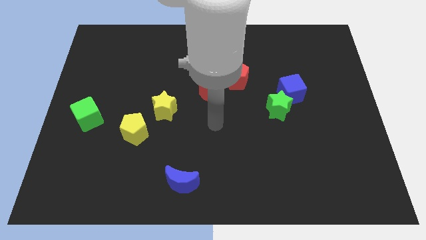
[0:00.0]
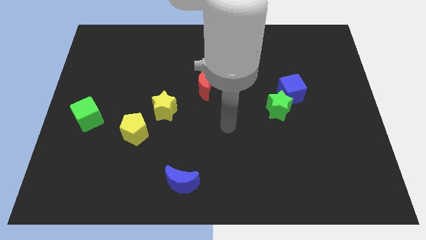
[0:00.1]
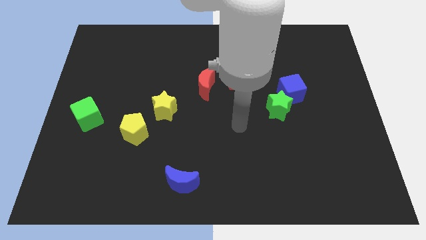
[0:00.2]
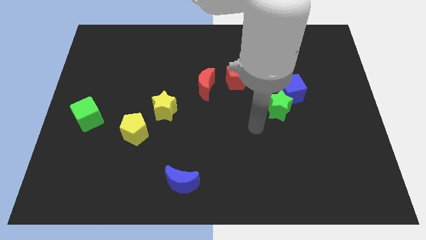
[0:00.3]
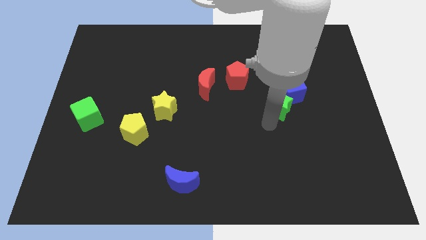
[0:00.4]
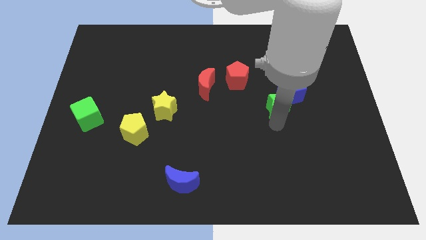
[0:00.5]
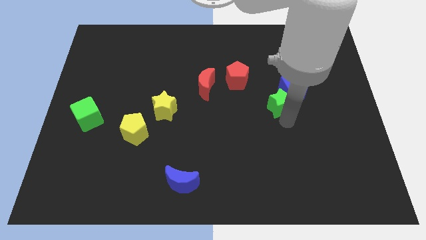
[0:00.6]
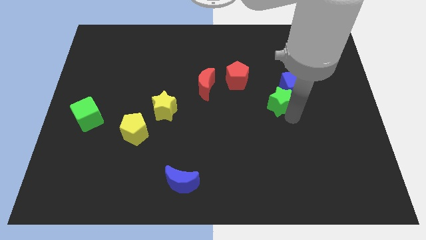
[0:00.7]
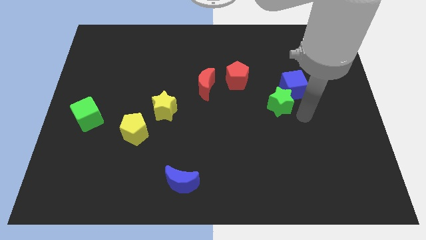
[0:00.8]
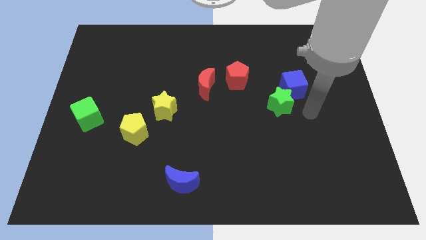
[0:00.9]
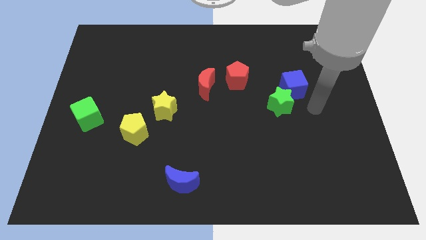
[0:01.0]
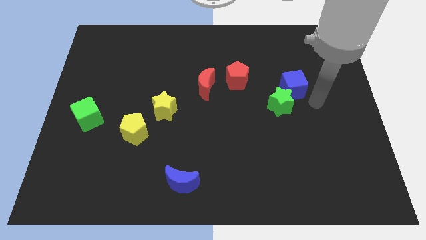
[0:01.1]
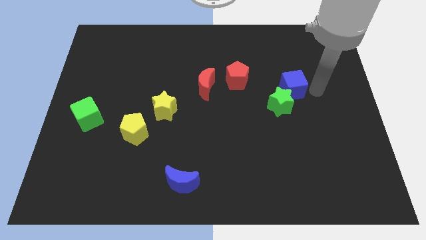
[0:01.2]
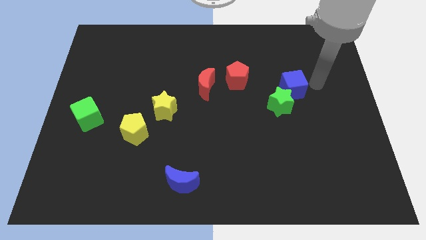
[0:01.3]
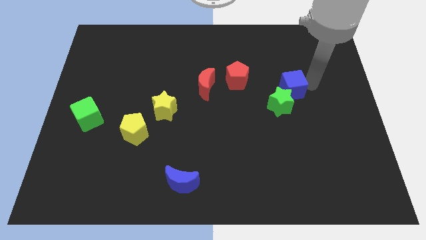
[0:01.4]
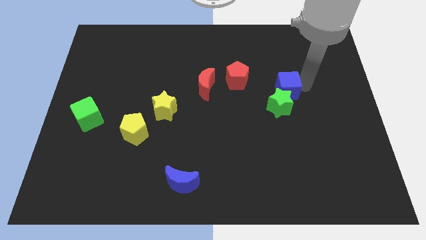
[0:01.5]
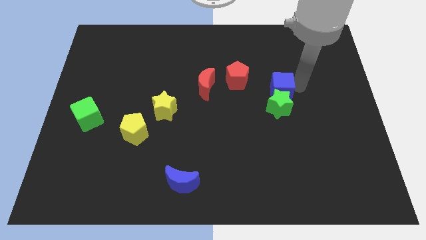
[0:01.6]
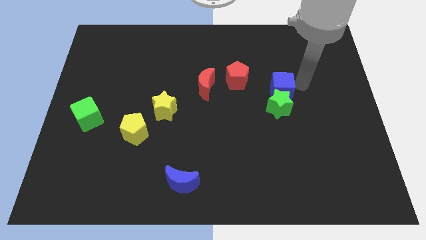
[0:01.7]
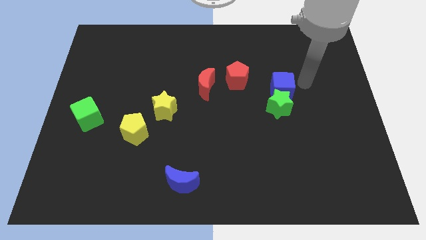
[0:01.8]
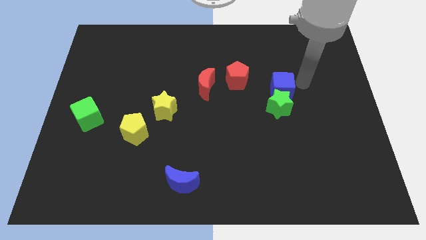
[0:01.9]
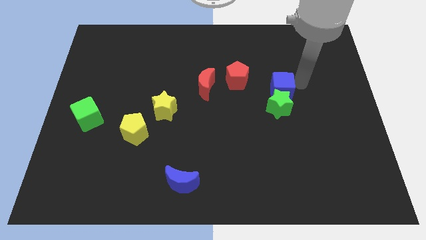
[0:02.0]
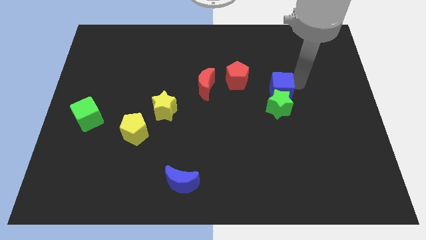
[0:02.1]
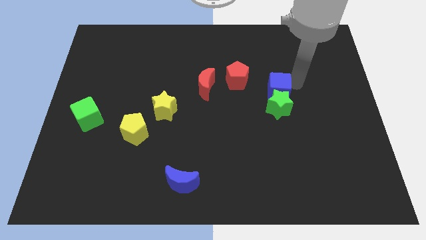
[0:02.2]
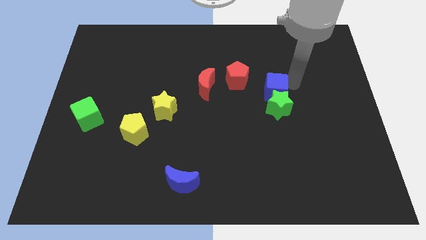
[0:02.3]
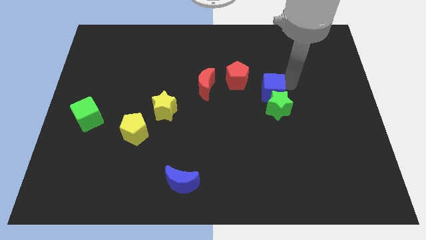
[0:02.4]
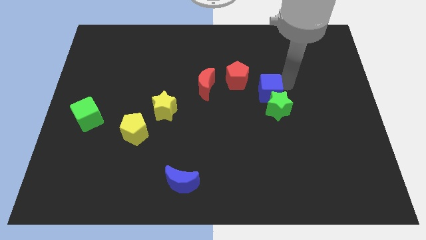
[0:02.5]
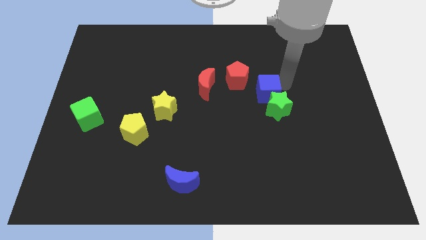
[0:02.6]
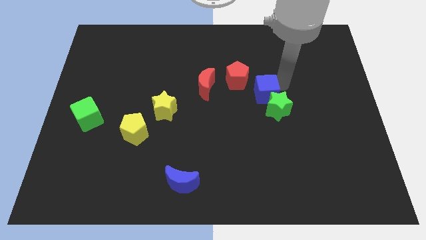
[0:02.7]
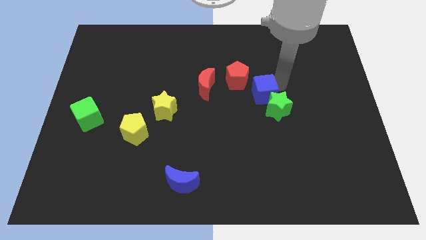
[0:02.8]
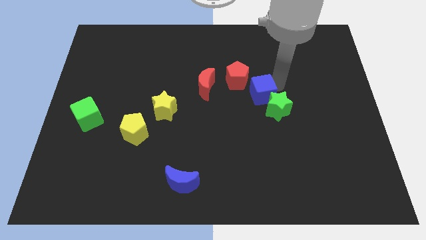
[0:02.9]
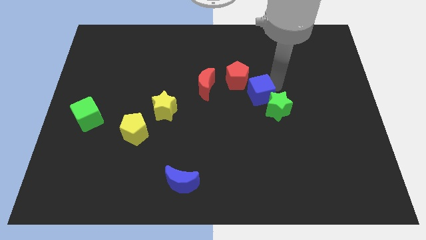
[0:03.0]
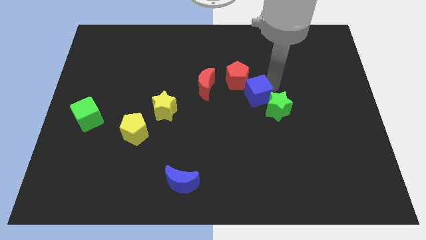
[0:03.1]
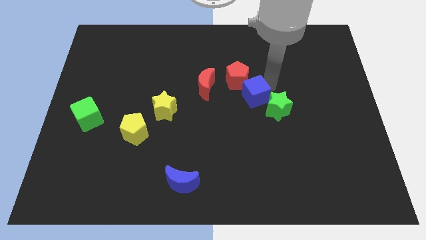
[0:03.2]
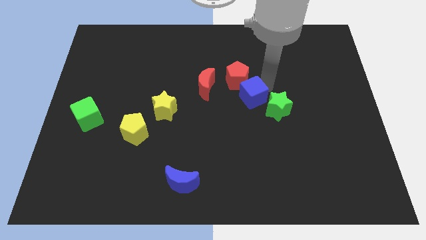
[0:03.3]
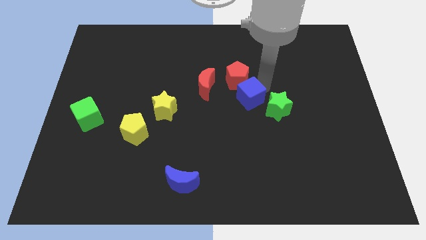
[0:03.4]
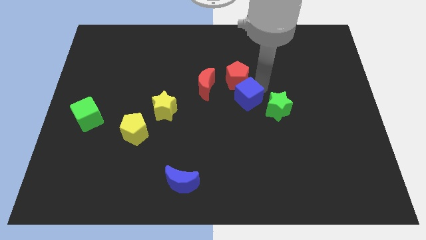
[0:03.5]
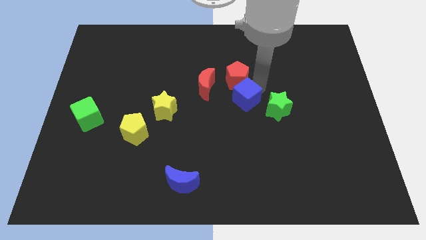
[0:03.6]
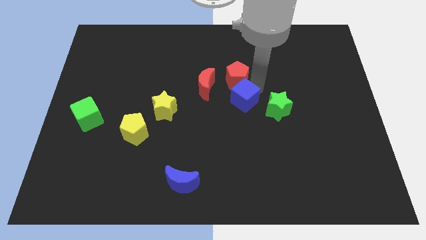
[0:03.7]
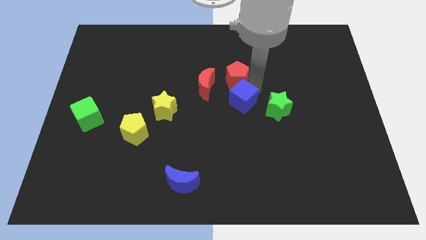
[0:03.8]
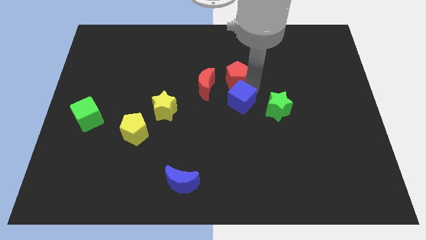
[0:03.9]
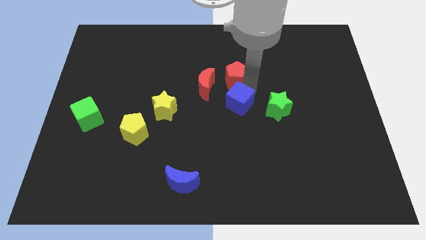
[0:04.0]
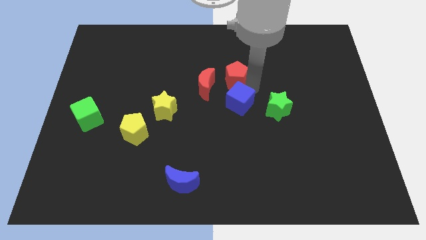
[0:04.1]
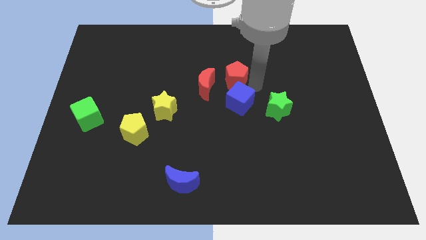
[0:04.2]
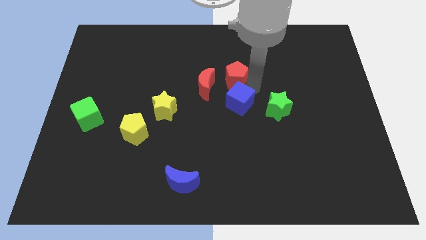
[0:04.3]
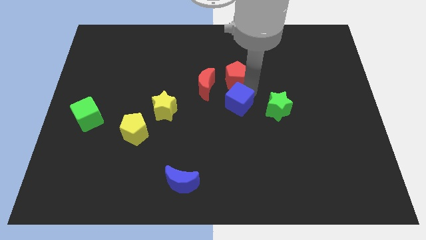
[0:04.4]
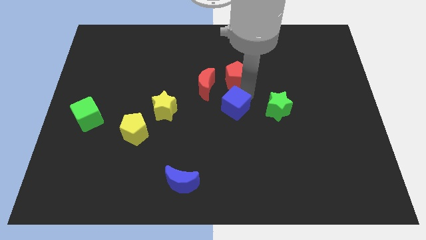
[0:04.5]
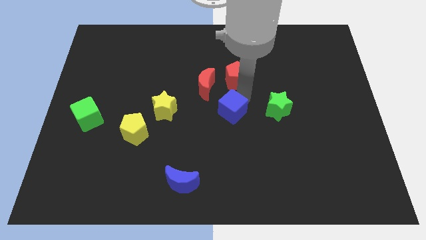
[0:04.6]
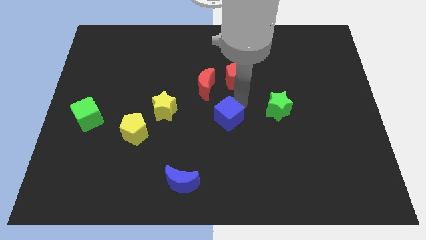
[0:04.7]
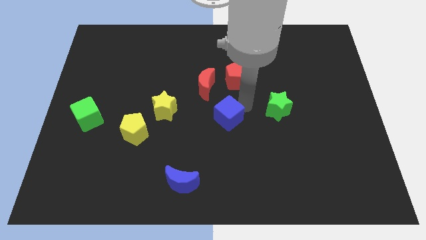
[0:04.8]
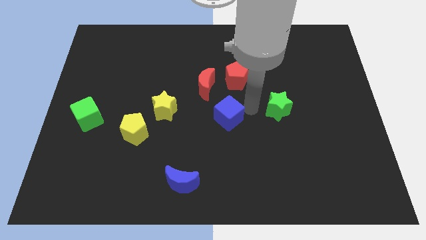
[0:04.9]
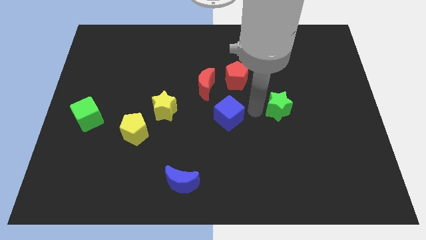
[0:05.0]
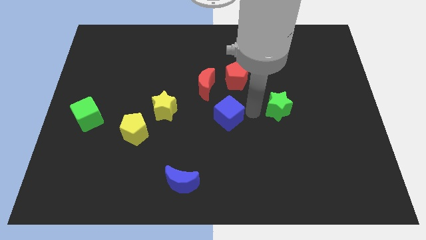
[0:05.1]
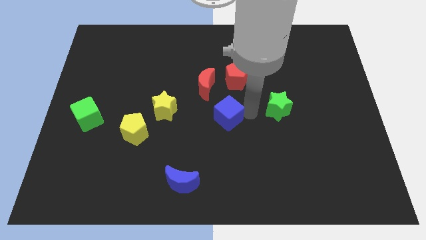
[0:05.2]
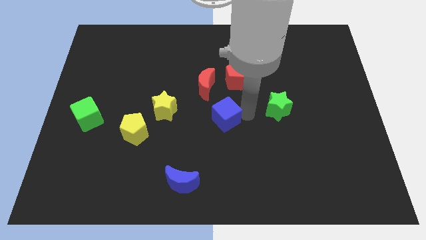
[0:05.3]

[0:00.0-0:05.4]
move the blue cube below the red moon

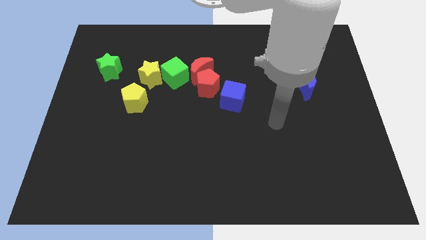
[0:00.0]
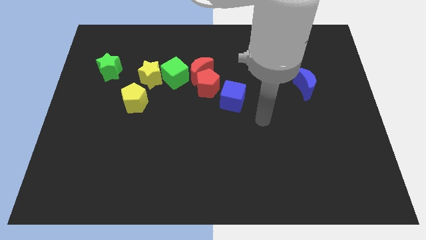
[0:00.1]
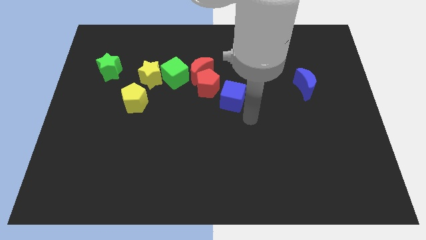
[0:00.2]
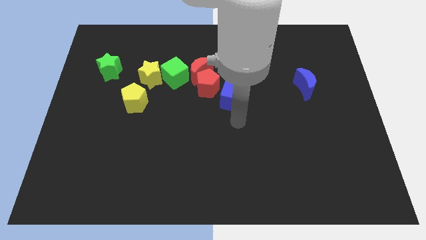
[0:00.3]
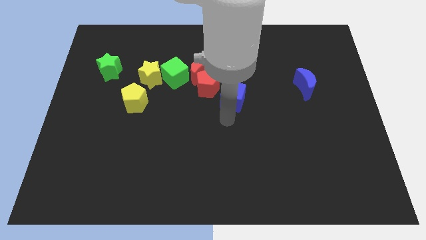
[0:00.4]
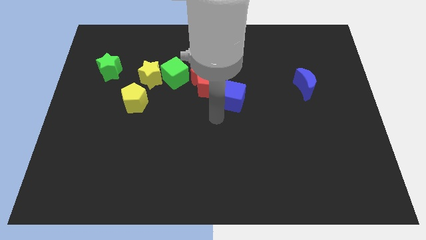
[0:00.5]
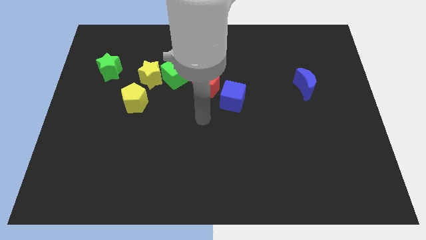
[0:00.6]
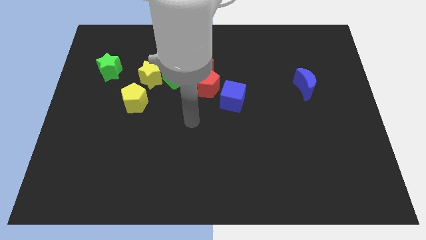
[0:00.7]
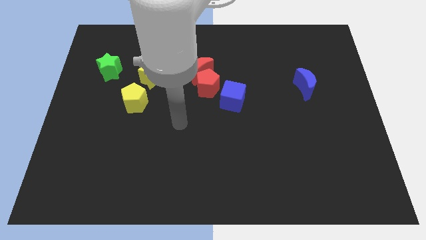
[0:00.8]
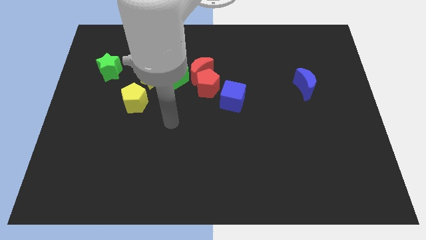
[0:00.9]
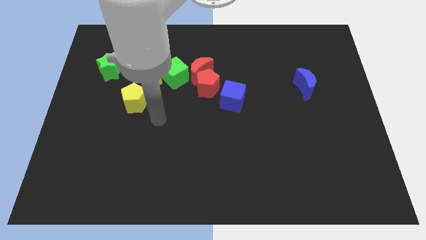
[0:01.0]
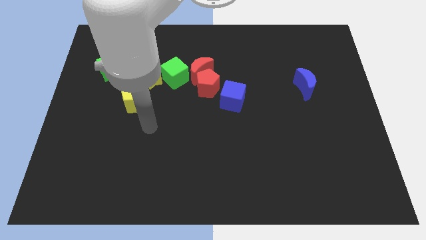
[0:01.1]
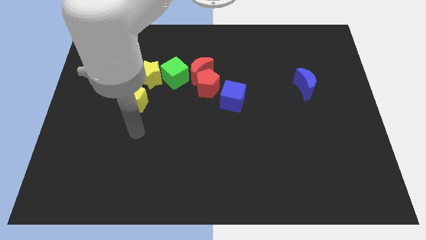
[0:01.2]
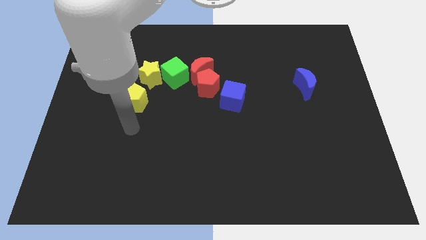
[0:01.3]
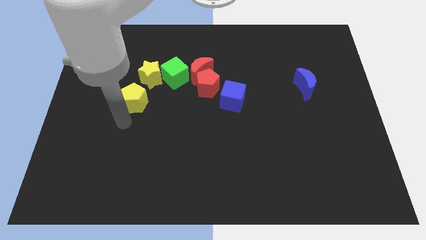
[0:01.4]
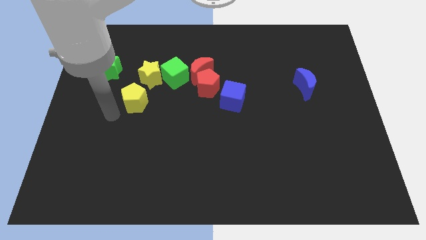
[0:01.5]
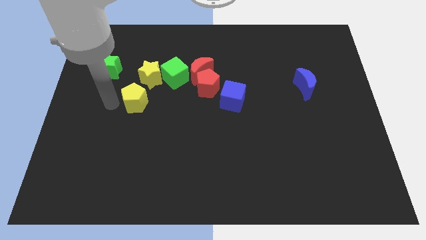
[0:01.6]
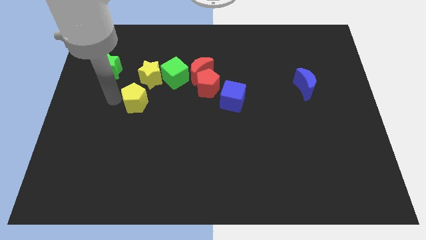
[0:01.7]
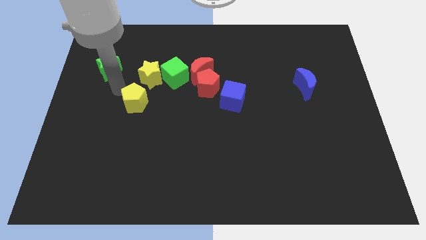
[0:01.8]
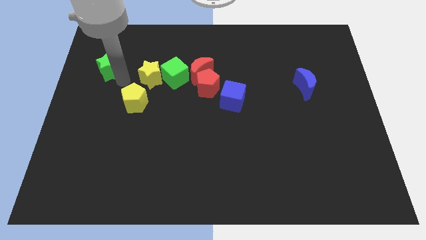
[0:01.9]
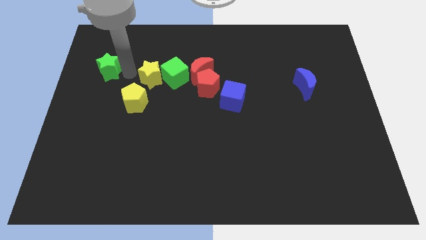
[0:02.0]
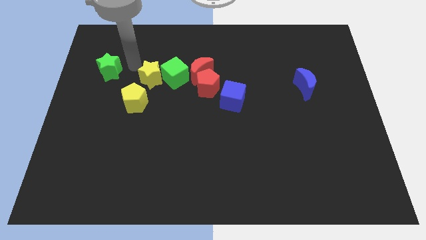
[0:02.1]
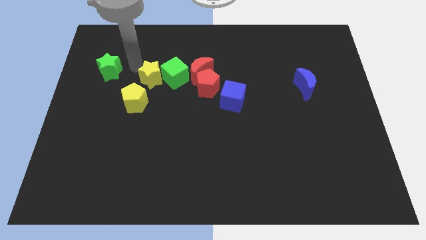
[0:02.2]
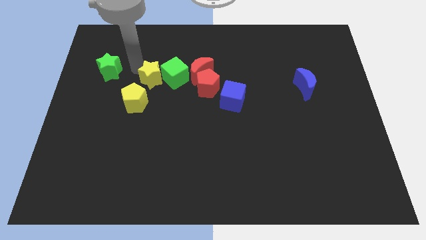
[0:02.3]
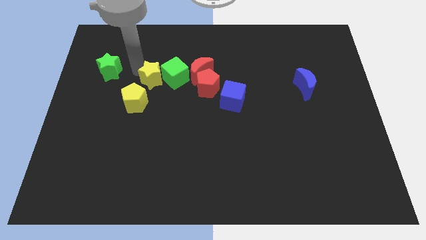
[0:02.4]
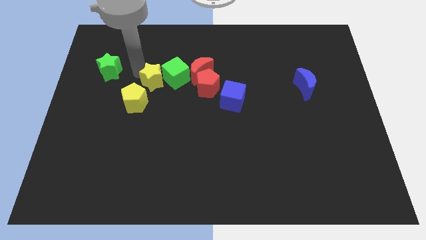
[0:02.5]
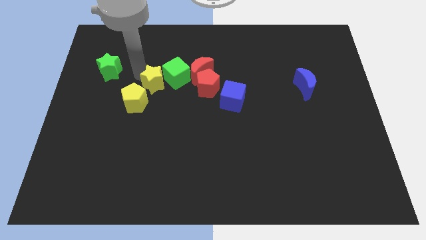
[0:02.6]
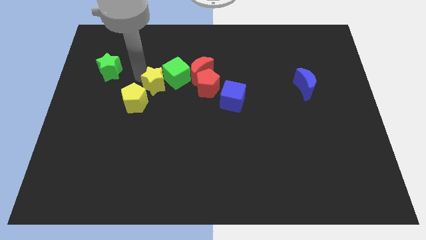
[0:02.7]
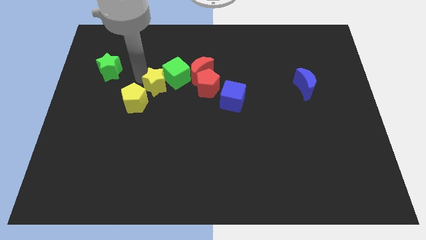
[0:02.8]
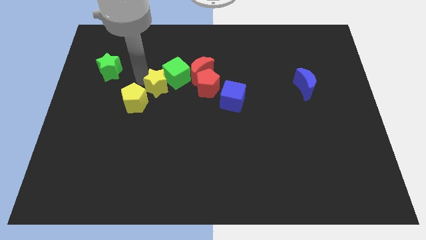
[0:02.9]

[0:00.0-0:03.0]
slide the yellow star just right of the yellow pentagon

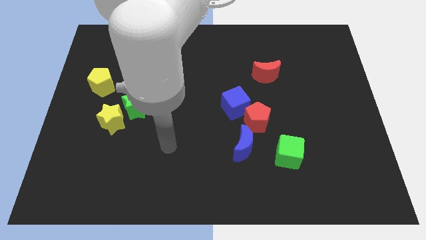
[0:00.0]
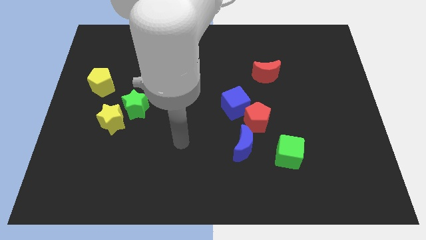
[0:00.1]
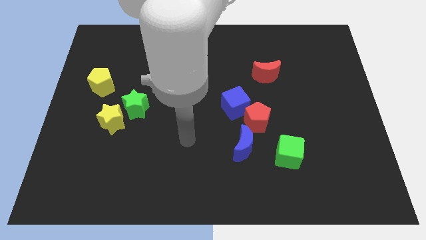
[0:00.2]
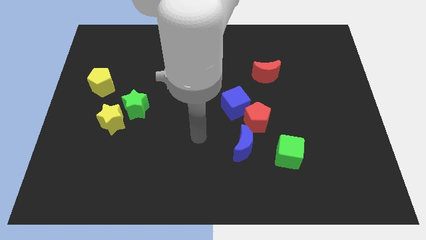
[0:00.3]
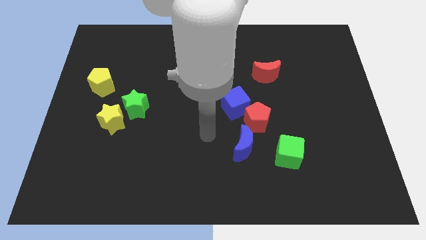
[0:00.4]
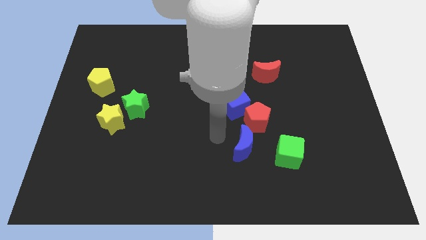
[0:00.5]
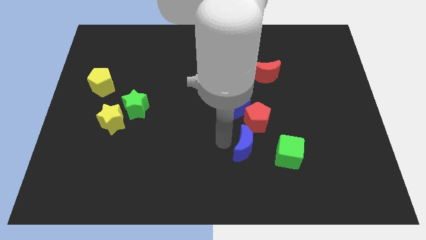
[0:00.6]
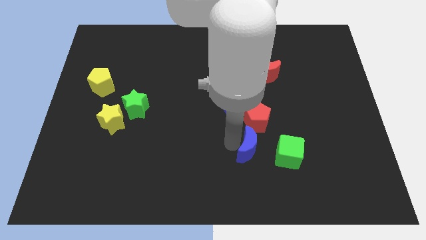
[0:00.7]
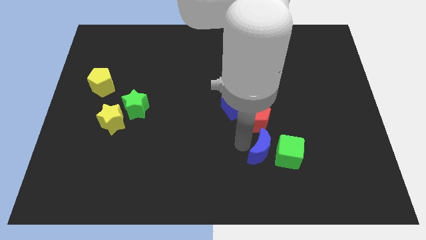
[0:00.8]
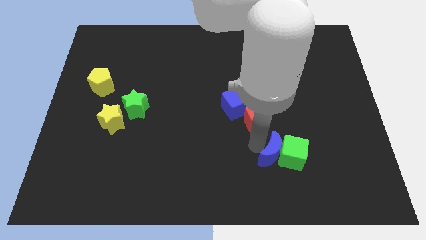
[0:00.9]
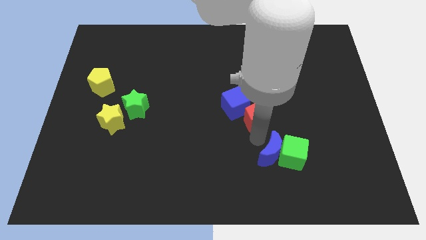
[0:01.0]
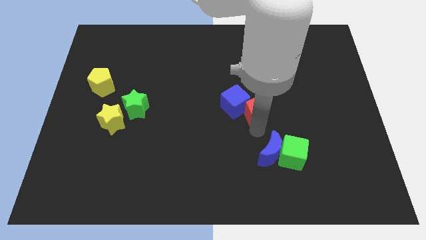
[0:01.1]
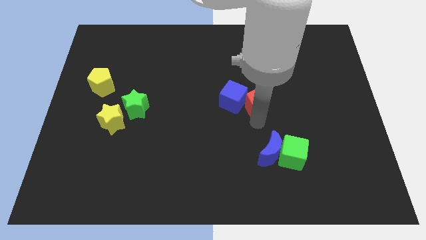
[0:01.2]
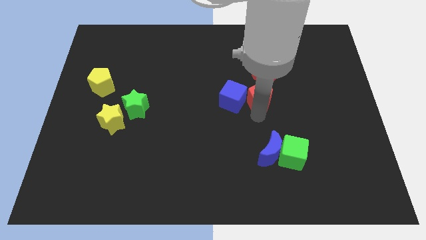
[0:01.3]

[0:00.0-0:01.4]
put the red pentagon to the top right side of the blue cube
